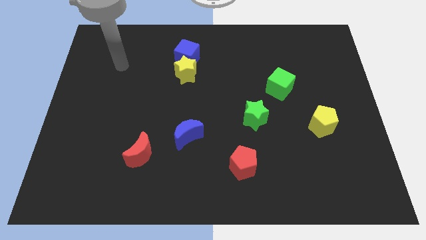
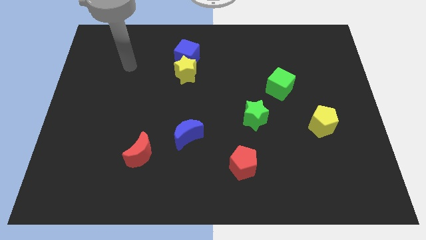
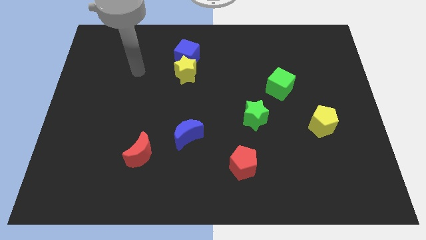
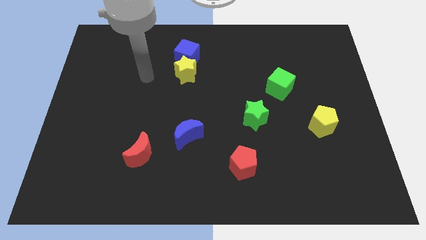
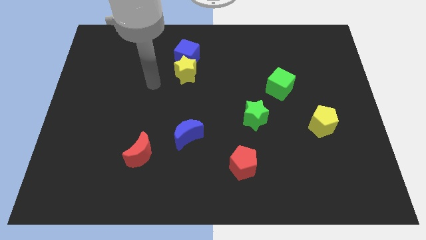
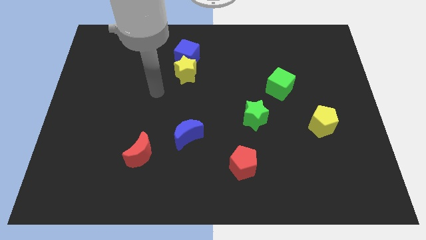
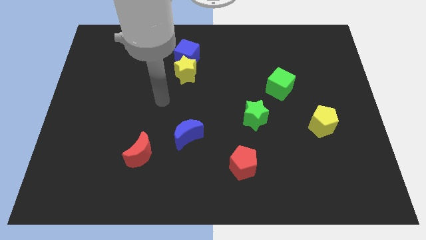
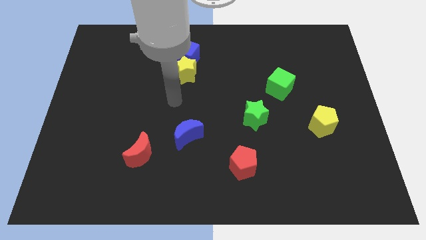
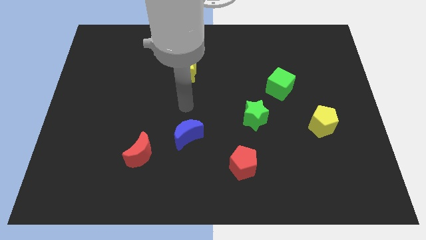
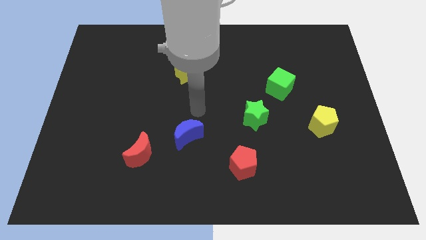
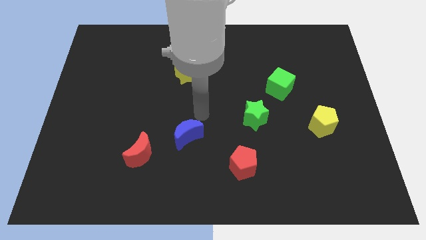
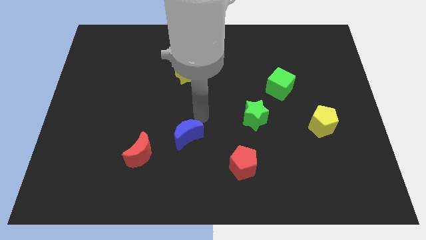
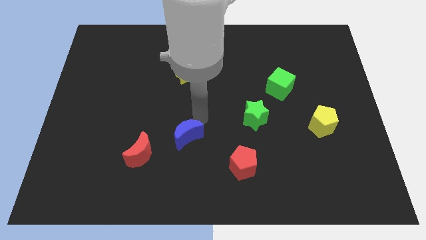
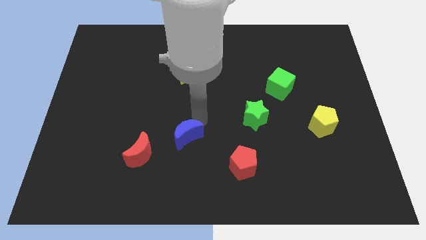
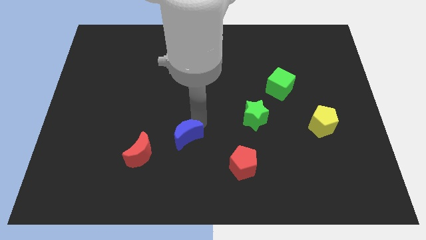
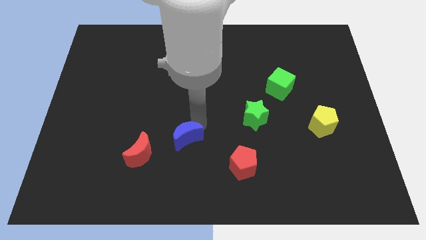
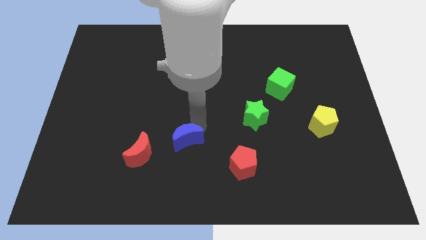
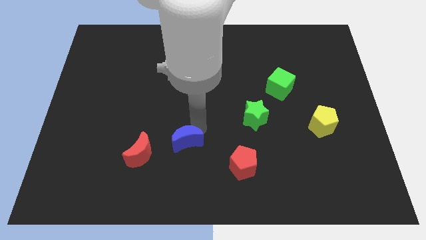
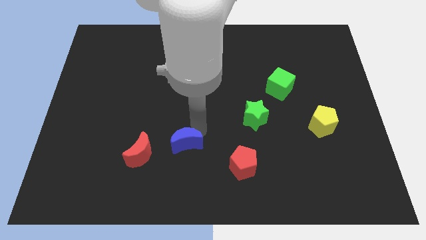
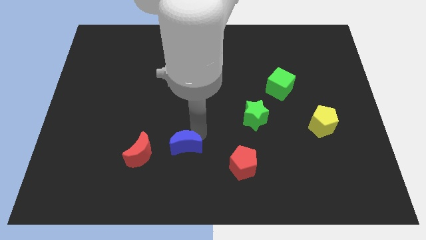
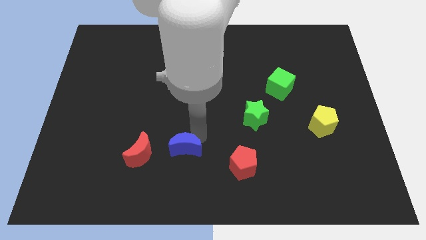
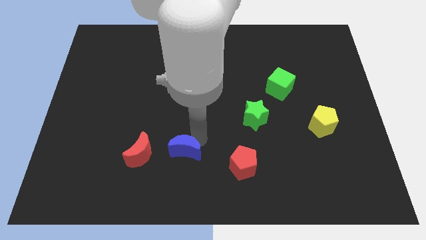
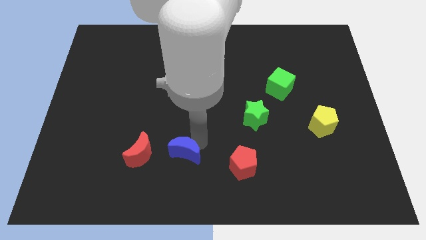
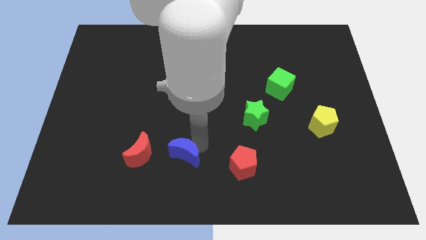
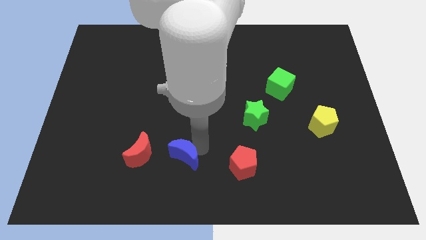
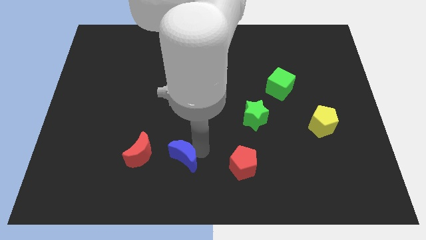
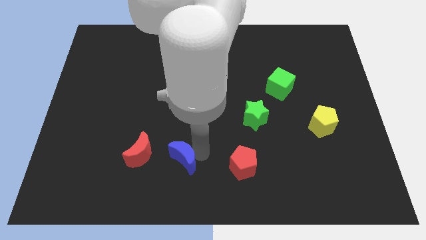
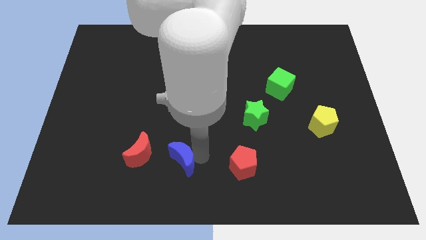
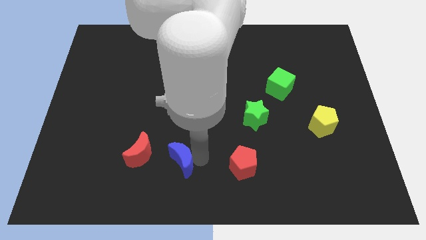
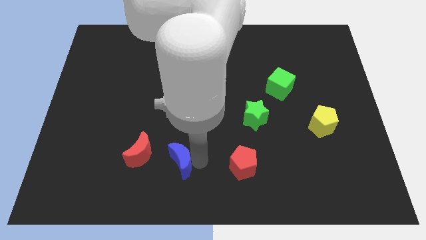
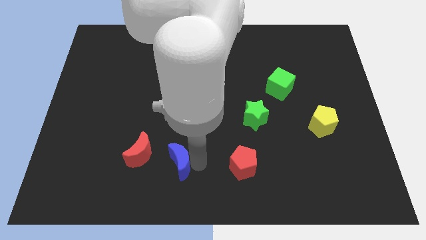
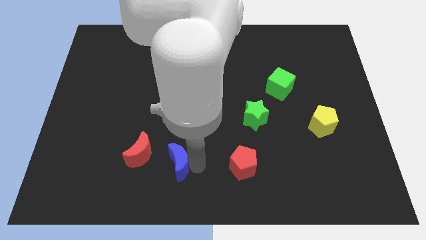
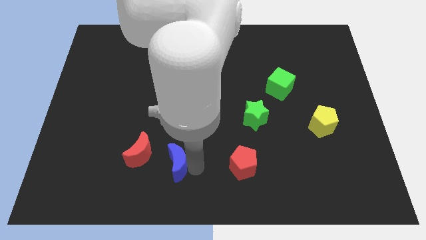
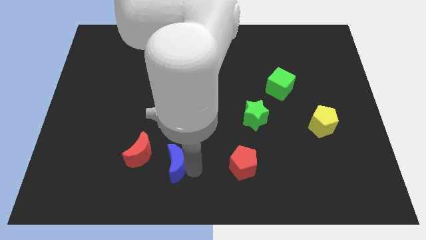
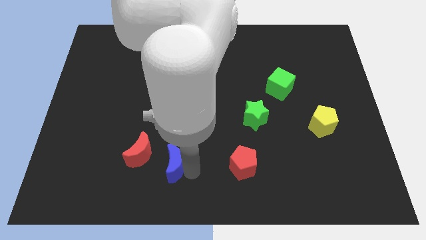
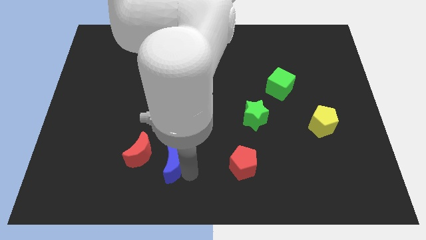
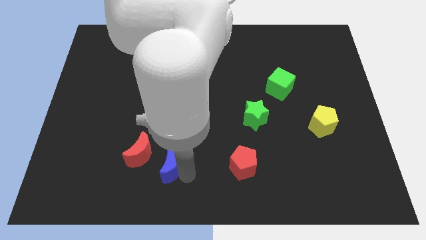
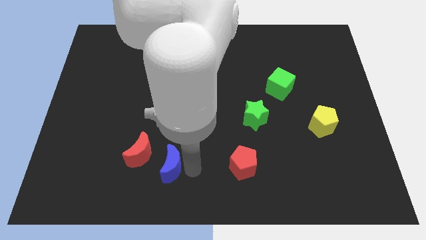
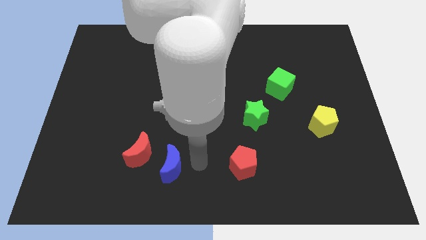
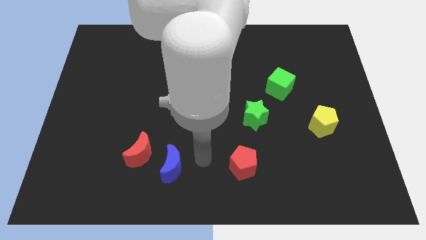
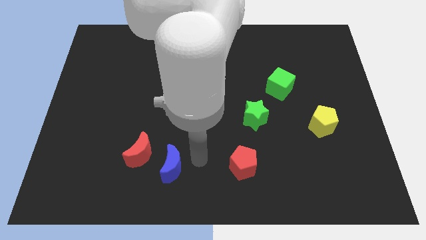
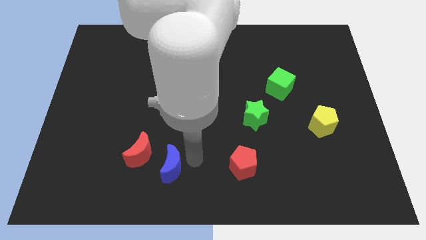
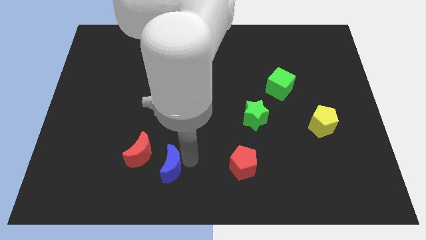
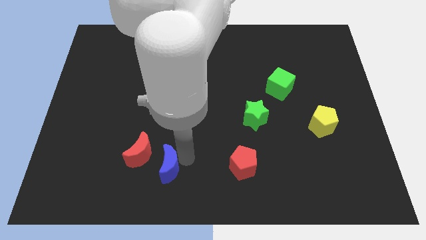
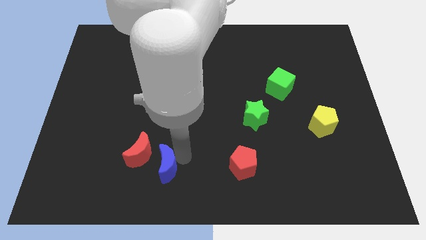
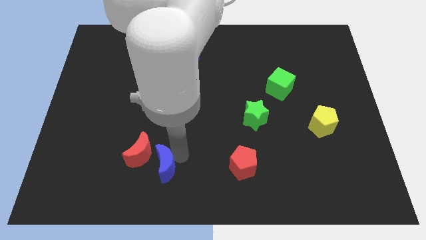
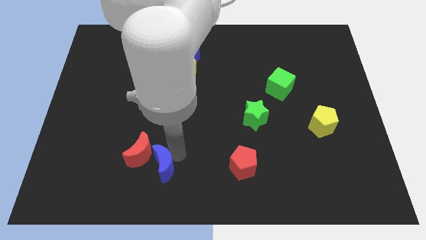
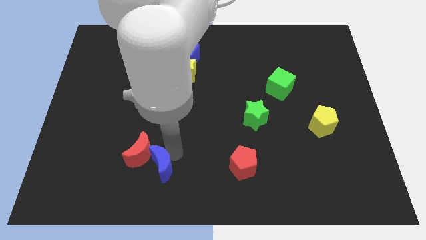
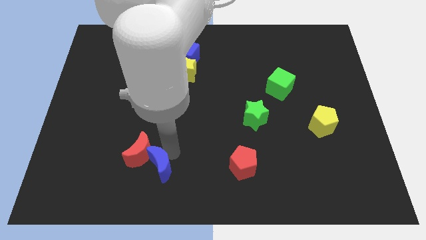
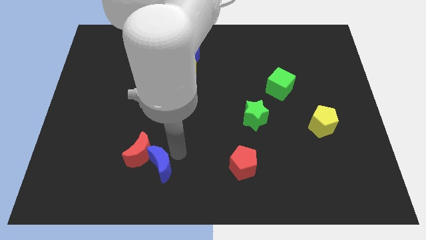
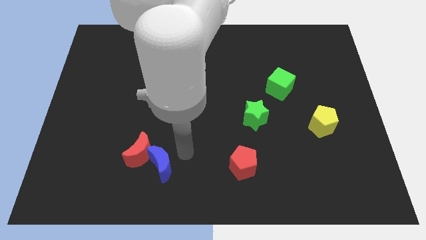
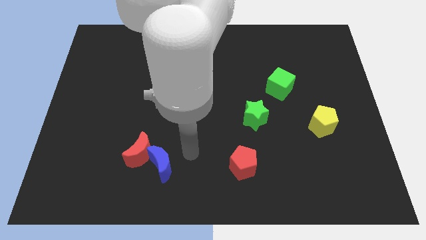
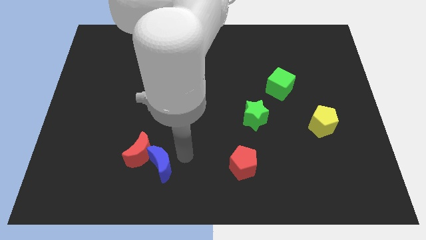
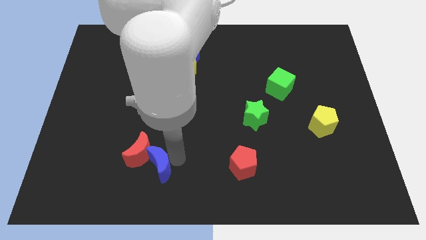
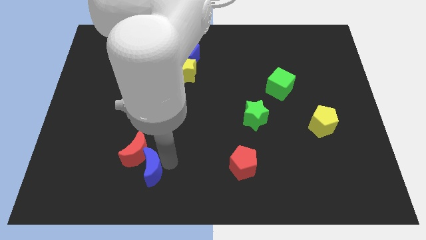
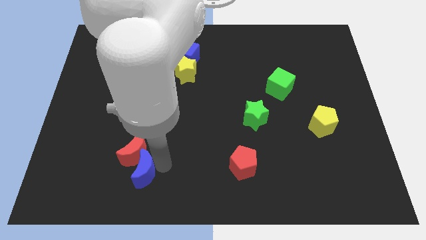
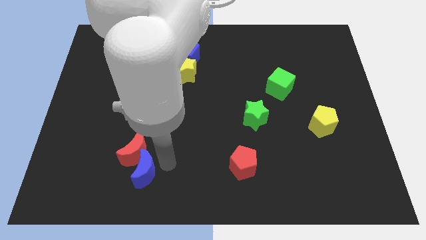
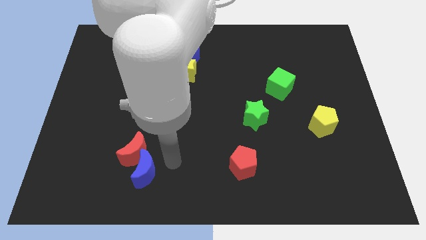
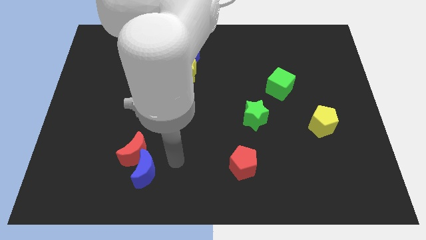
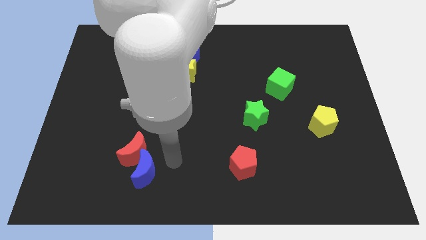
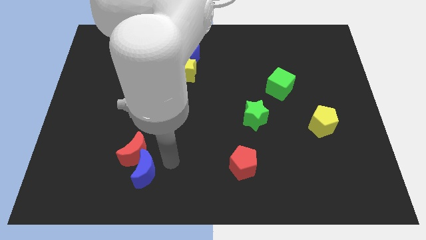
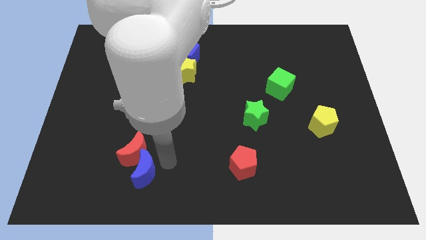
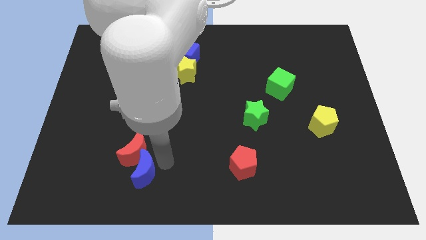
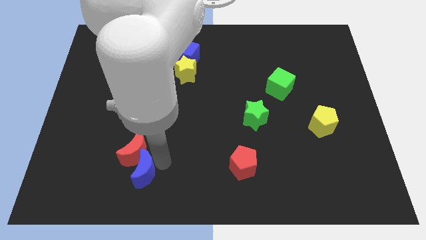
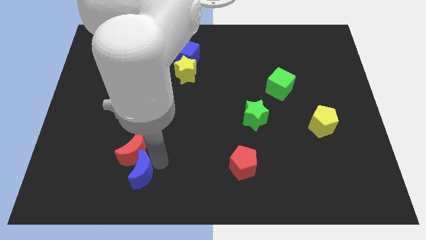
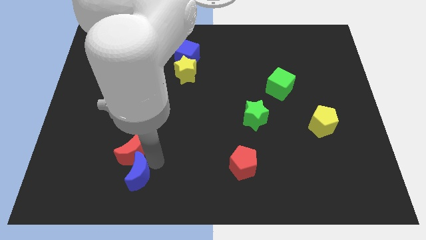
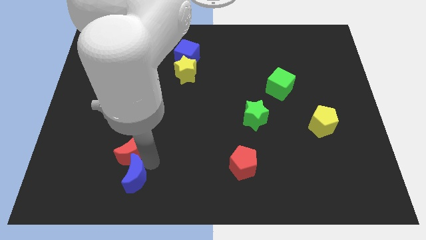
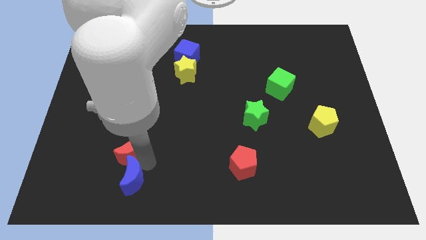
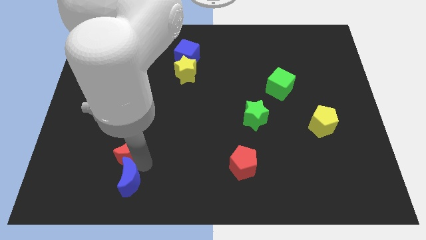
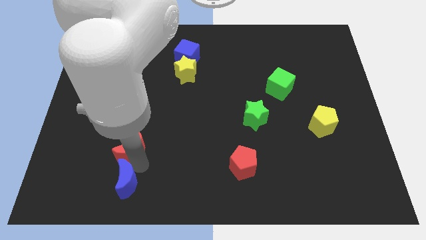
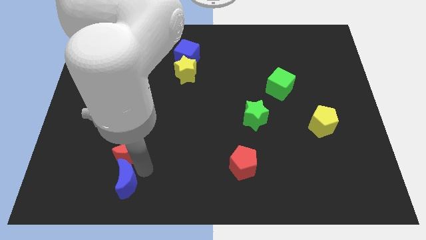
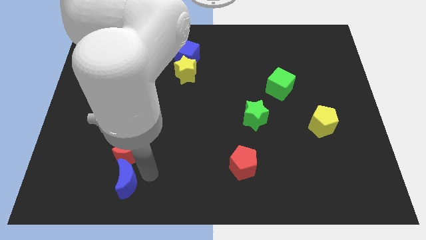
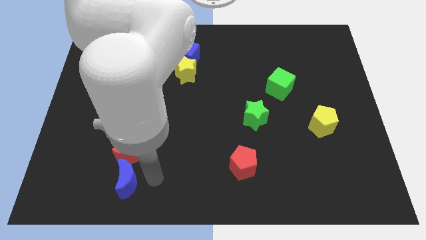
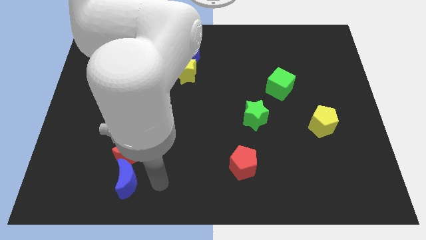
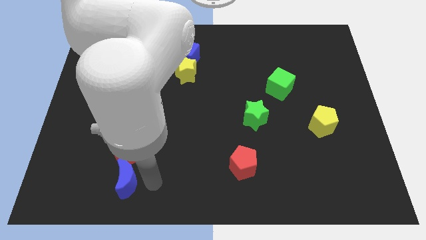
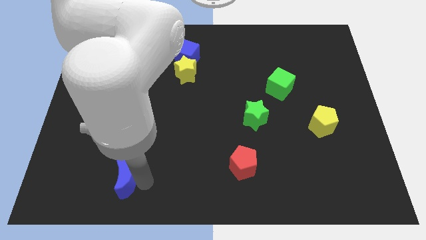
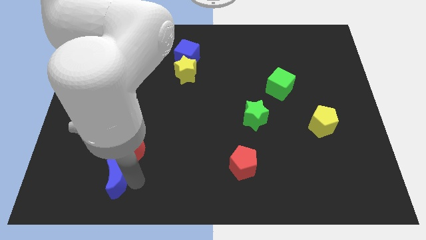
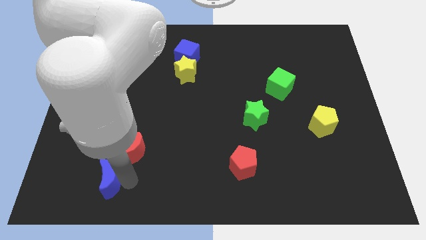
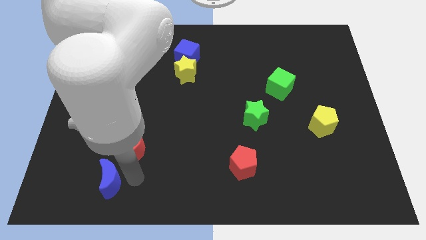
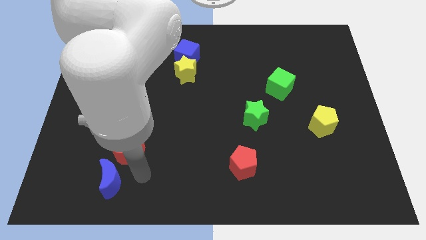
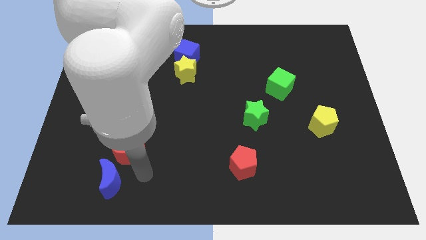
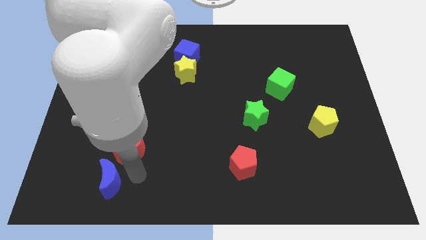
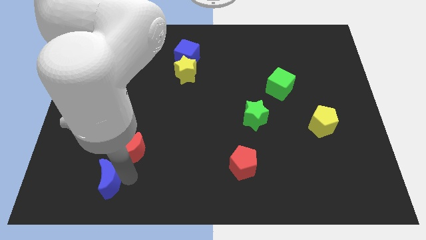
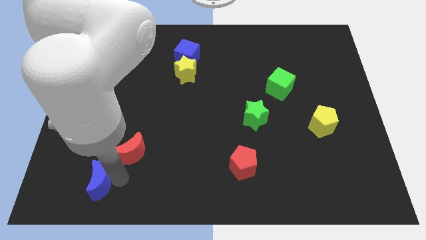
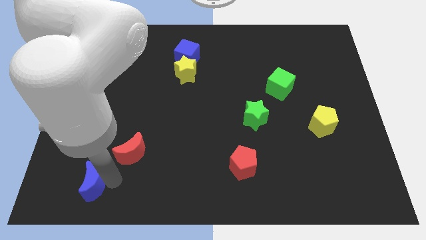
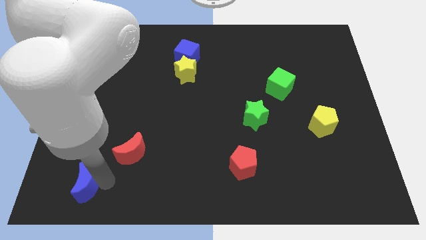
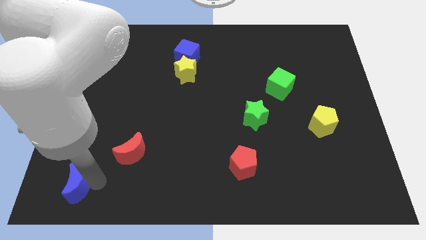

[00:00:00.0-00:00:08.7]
put the blue moon to the bottom left of the board
